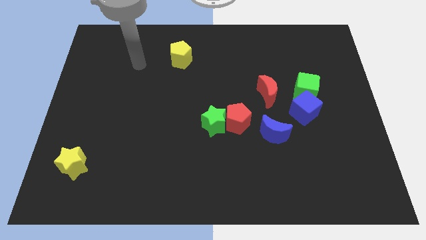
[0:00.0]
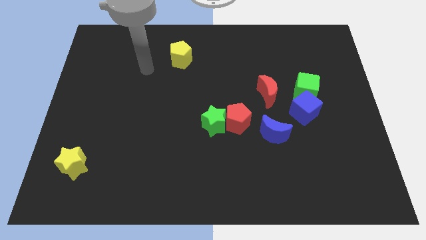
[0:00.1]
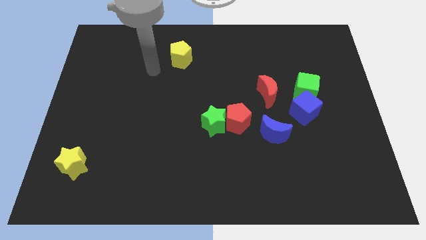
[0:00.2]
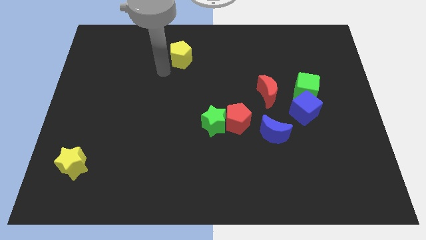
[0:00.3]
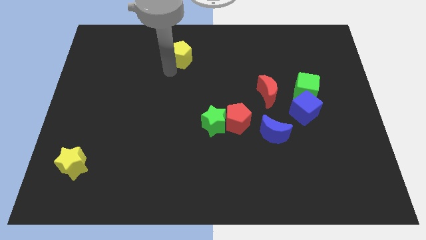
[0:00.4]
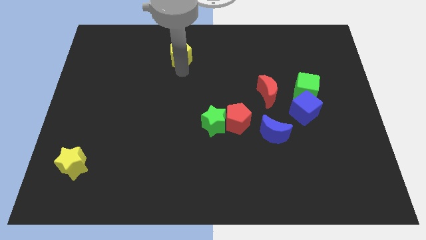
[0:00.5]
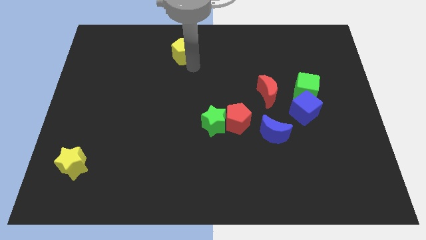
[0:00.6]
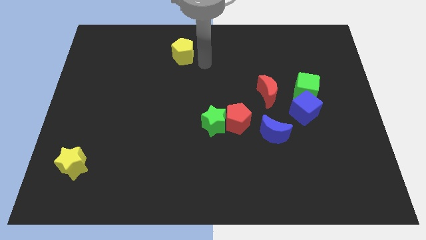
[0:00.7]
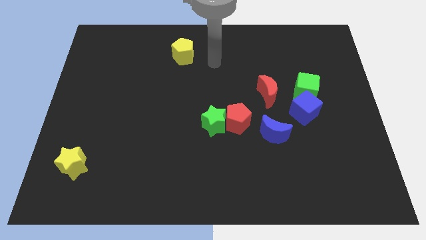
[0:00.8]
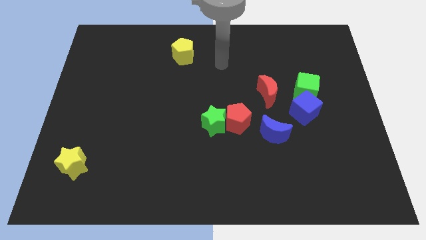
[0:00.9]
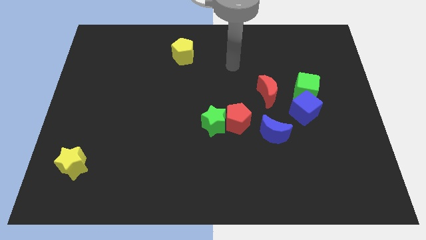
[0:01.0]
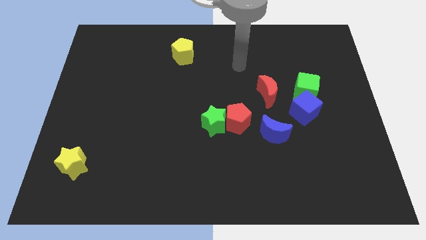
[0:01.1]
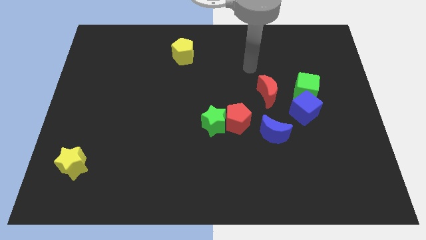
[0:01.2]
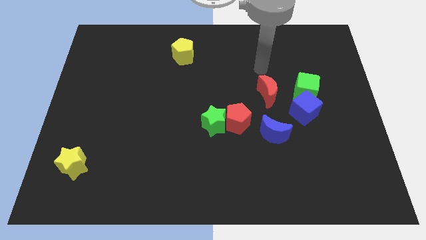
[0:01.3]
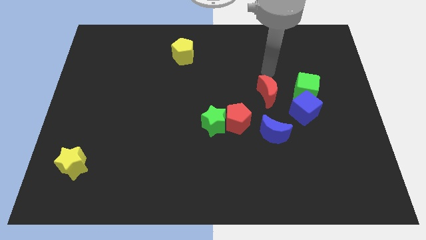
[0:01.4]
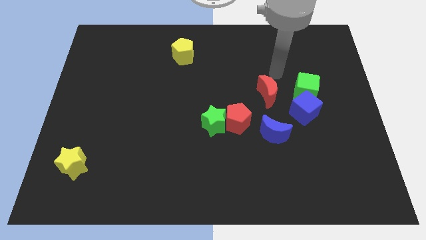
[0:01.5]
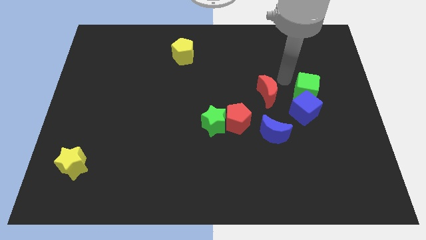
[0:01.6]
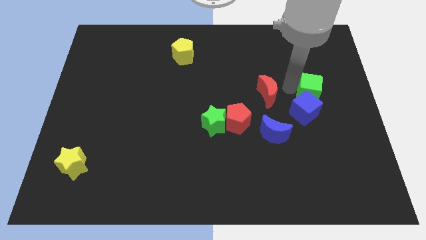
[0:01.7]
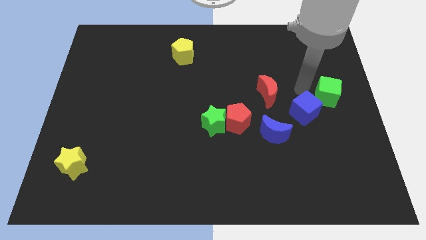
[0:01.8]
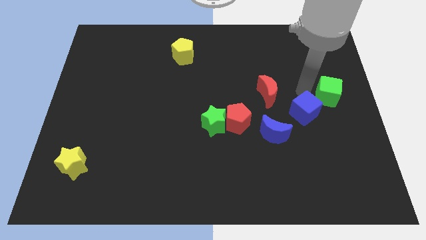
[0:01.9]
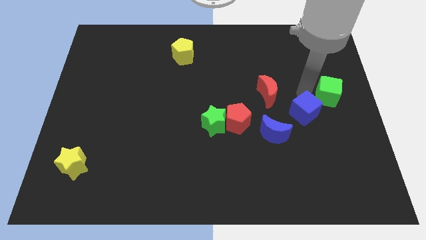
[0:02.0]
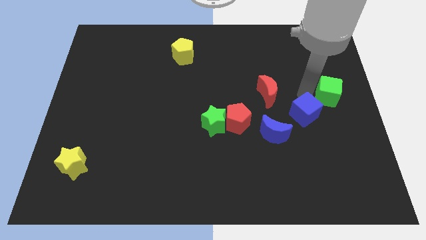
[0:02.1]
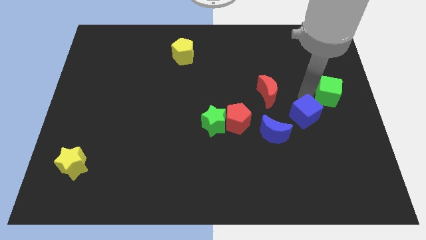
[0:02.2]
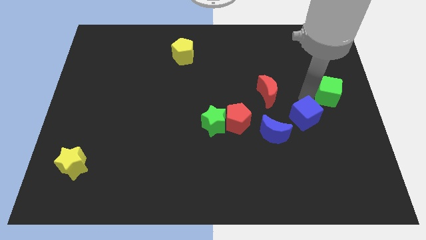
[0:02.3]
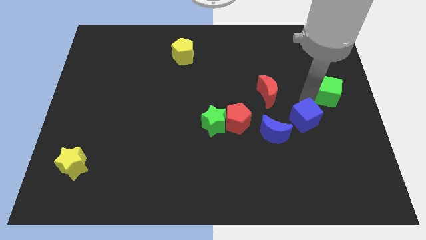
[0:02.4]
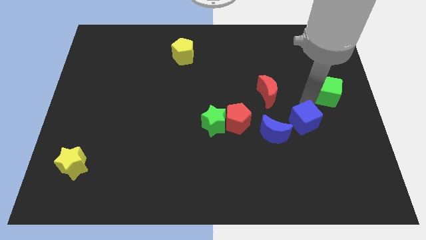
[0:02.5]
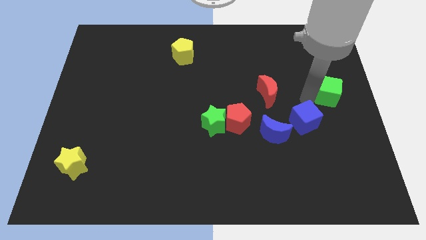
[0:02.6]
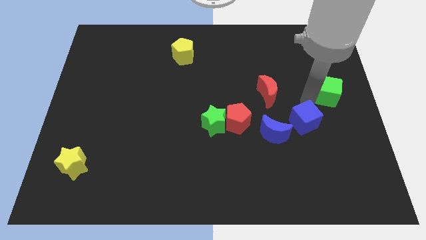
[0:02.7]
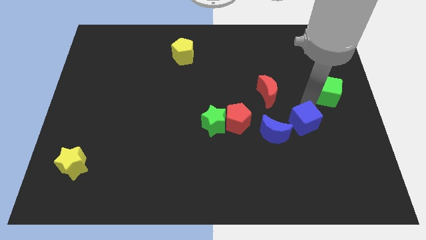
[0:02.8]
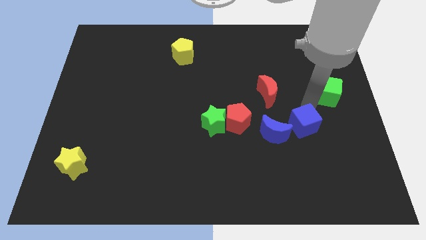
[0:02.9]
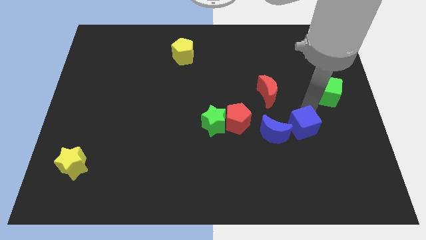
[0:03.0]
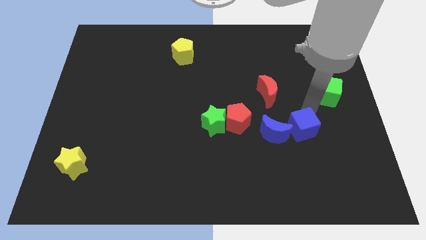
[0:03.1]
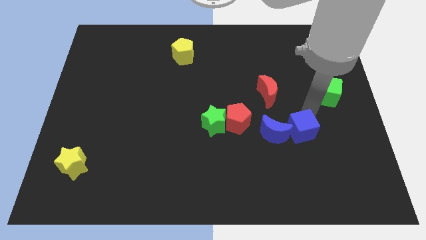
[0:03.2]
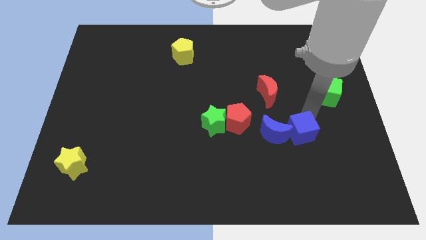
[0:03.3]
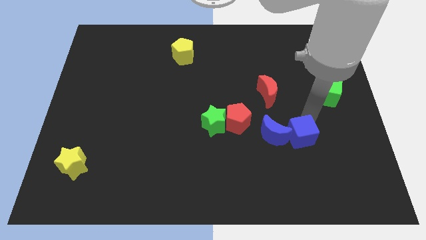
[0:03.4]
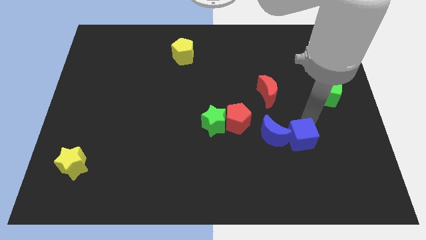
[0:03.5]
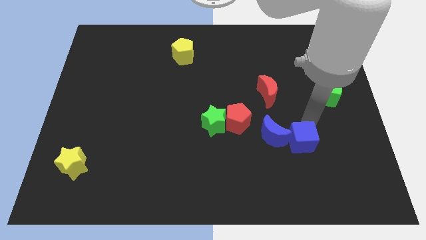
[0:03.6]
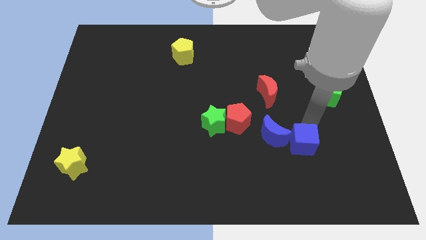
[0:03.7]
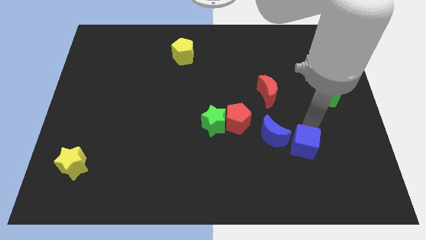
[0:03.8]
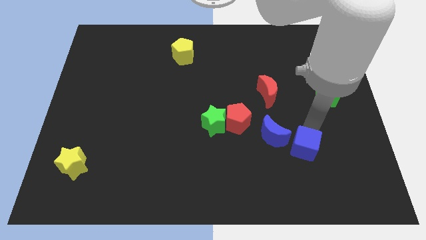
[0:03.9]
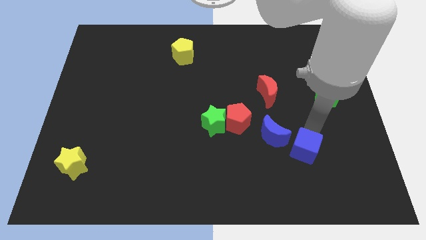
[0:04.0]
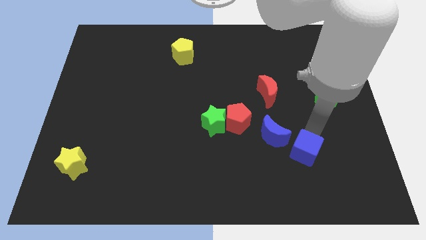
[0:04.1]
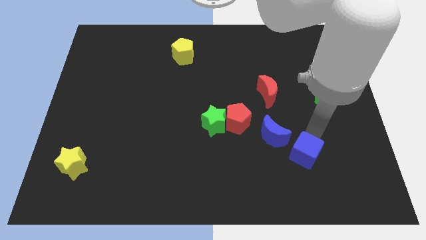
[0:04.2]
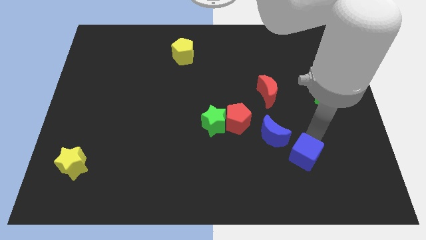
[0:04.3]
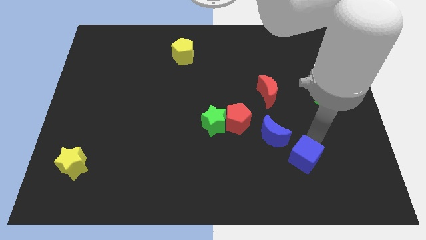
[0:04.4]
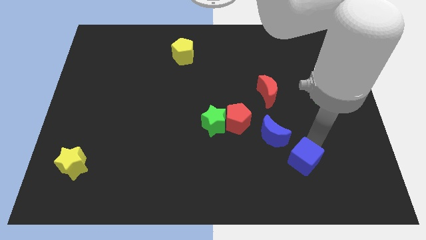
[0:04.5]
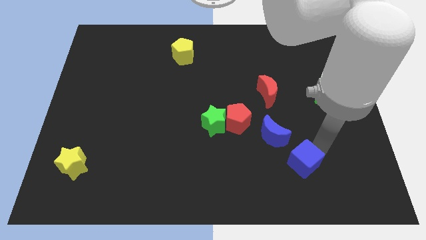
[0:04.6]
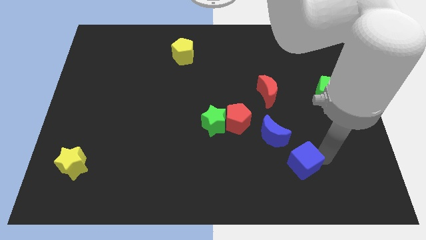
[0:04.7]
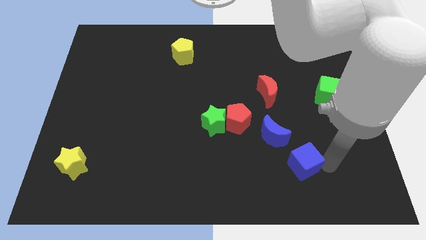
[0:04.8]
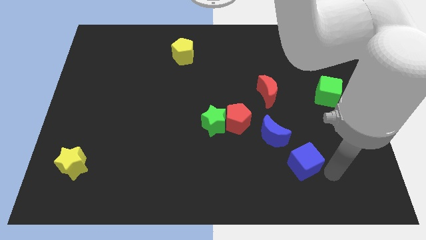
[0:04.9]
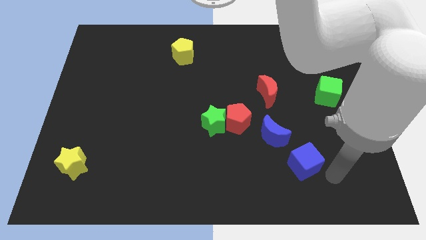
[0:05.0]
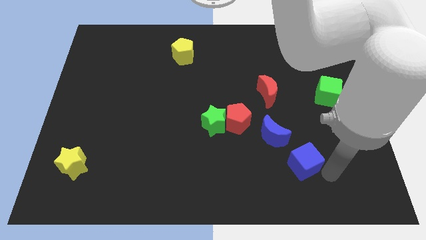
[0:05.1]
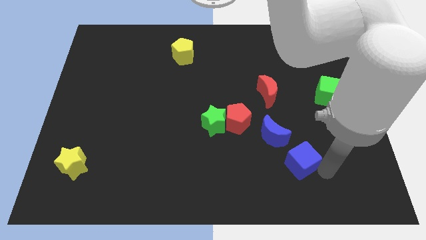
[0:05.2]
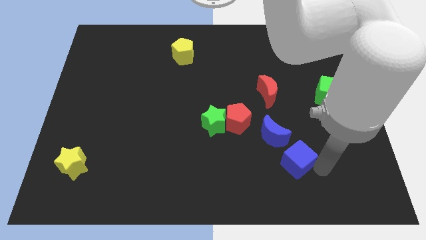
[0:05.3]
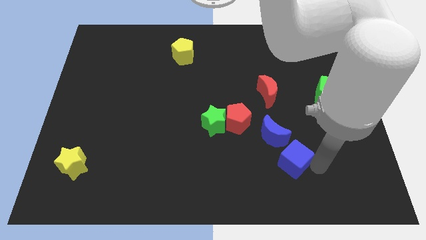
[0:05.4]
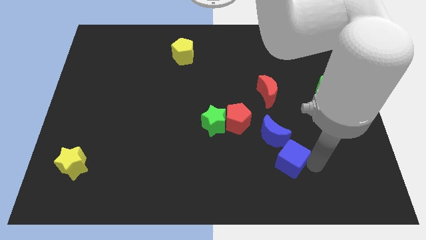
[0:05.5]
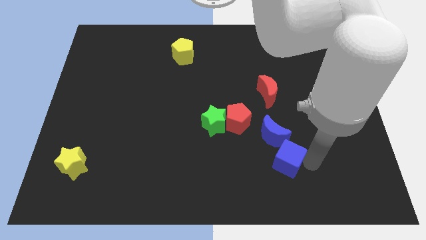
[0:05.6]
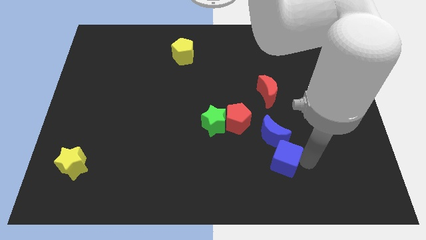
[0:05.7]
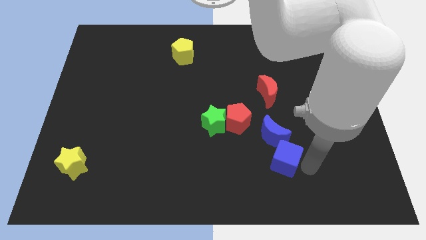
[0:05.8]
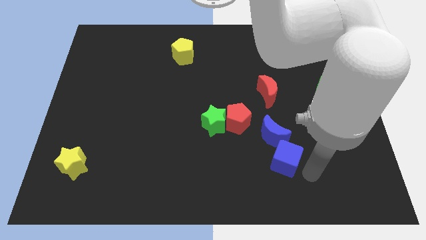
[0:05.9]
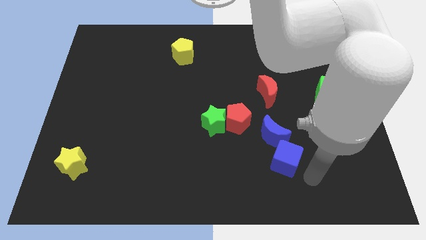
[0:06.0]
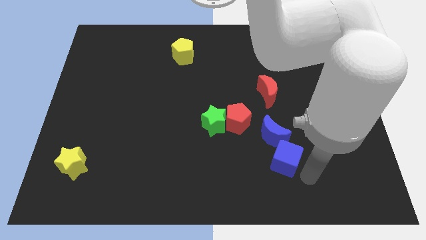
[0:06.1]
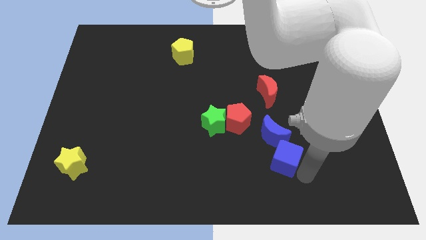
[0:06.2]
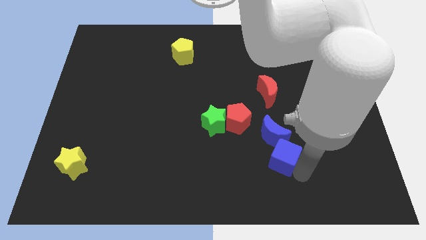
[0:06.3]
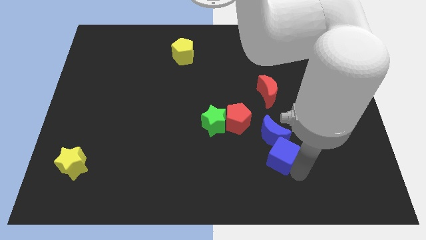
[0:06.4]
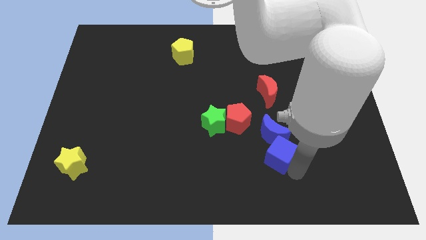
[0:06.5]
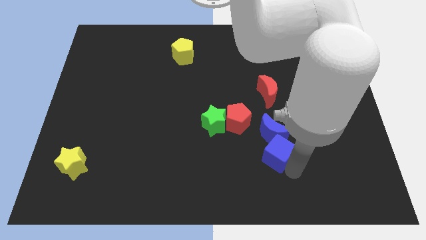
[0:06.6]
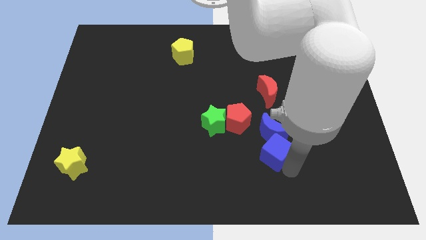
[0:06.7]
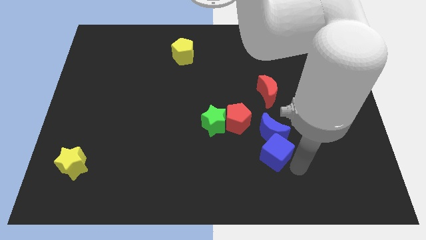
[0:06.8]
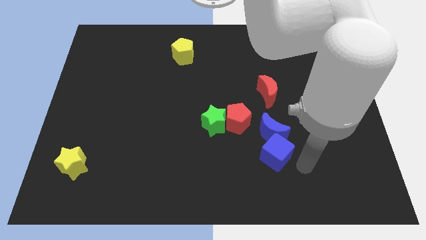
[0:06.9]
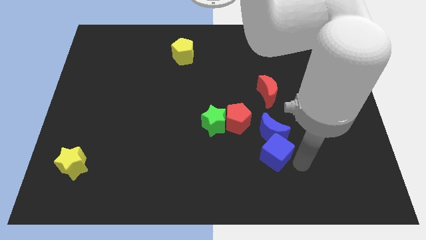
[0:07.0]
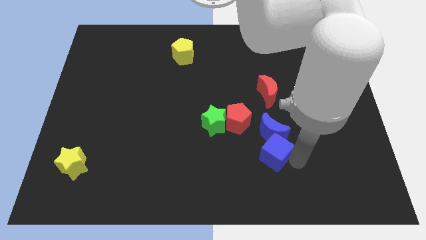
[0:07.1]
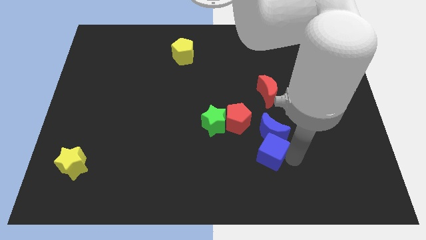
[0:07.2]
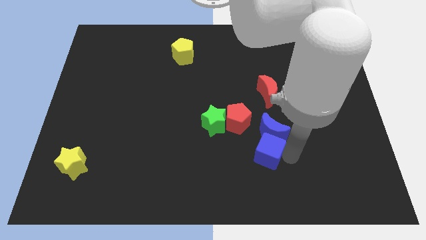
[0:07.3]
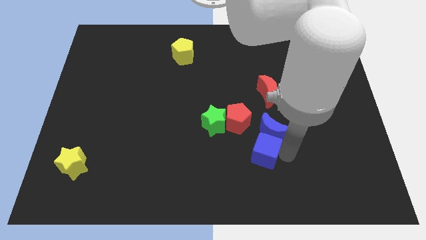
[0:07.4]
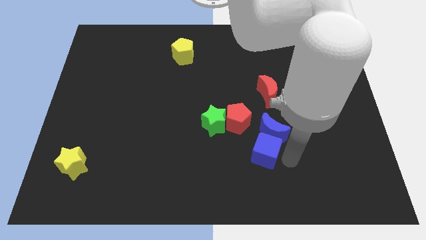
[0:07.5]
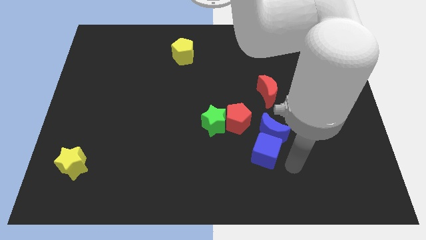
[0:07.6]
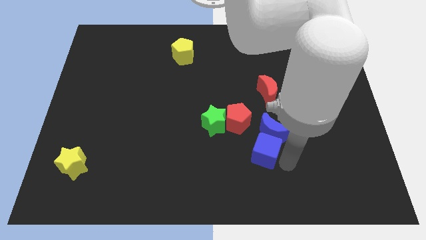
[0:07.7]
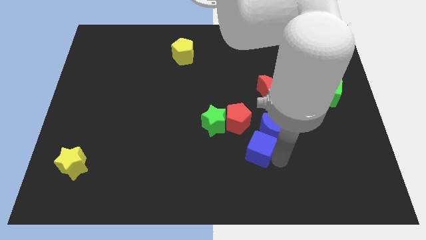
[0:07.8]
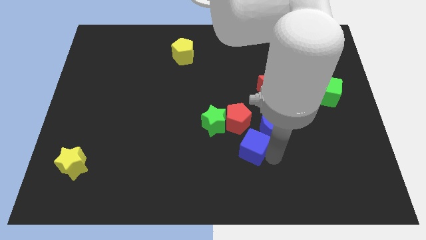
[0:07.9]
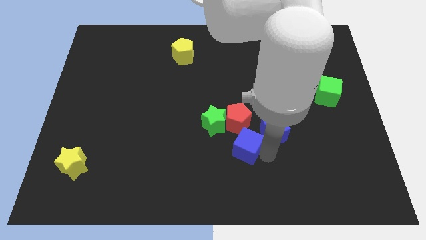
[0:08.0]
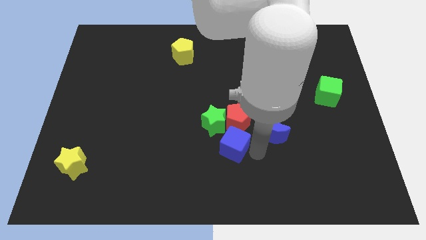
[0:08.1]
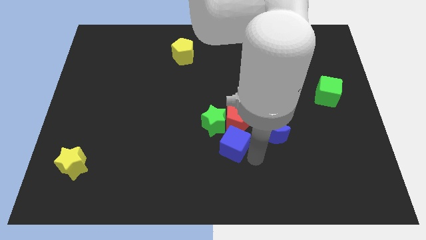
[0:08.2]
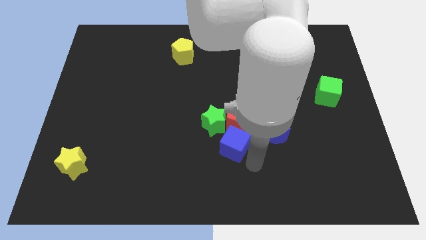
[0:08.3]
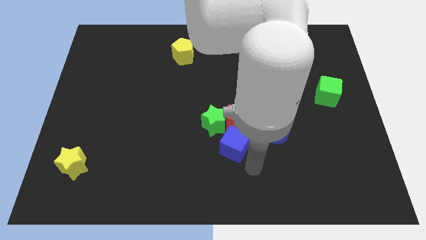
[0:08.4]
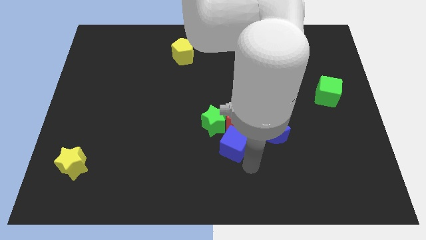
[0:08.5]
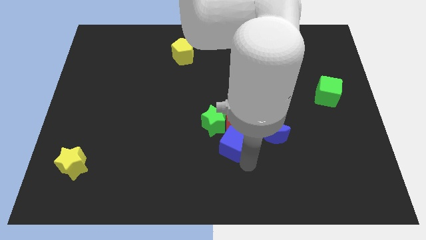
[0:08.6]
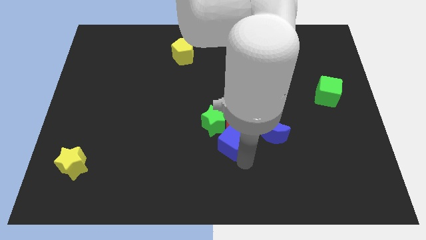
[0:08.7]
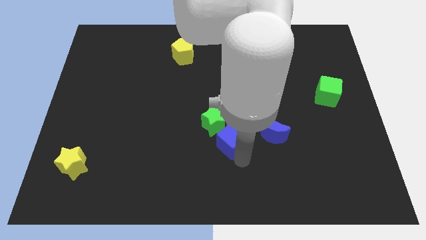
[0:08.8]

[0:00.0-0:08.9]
slide the blue cube close to the green star
